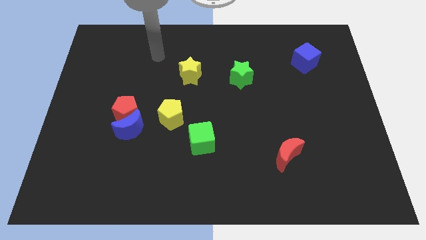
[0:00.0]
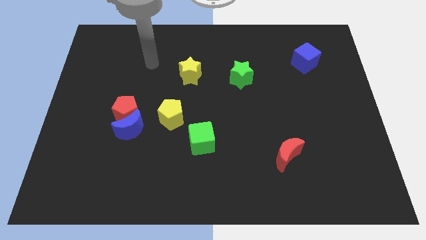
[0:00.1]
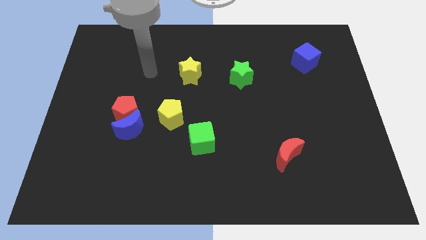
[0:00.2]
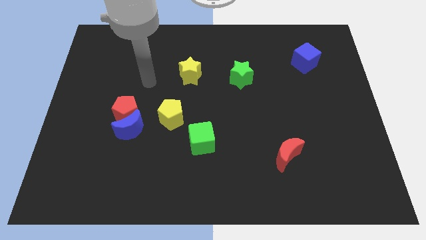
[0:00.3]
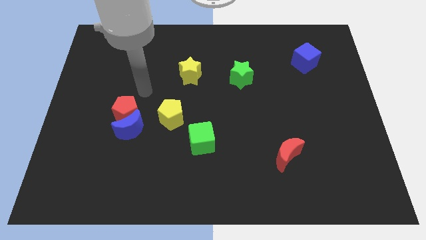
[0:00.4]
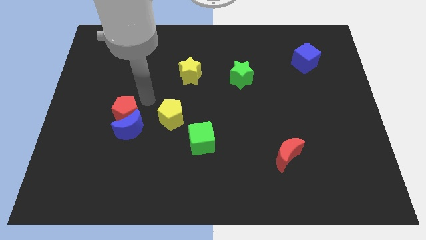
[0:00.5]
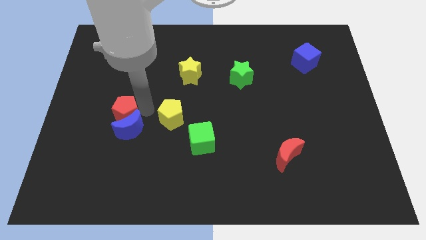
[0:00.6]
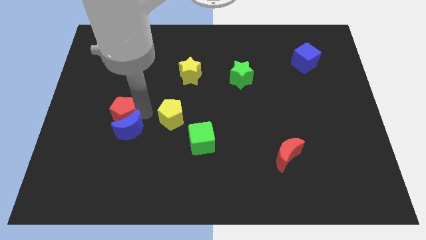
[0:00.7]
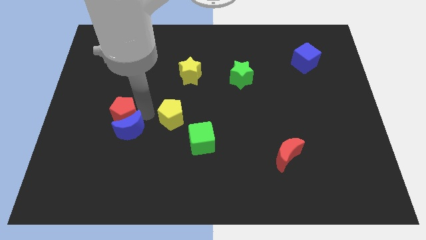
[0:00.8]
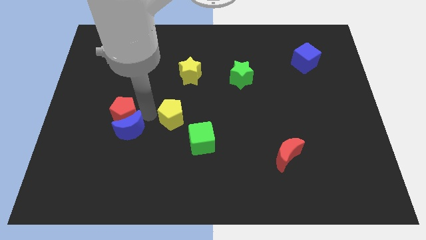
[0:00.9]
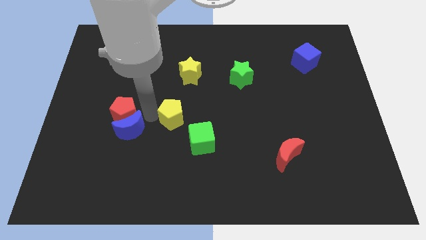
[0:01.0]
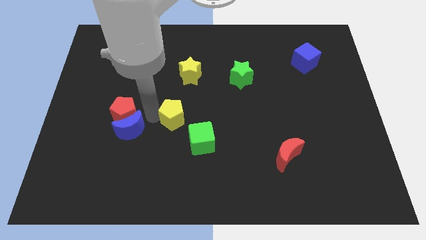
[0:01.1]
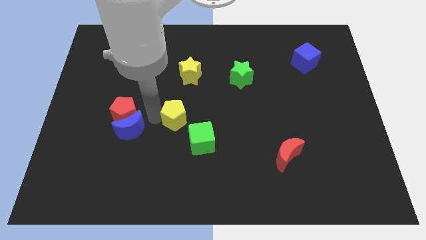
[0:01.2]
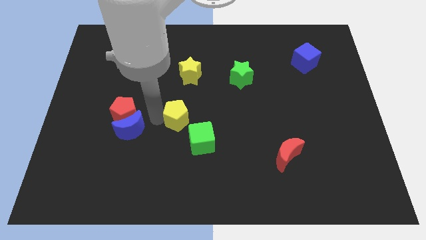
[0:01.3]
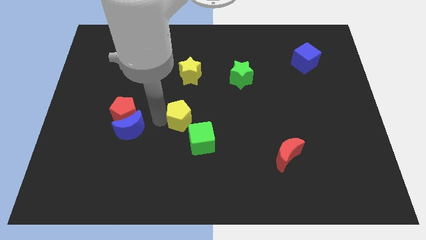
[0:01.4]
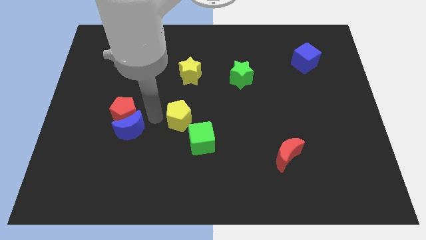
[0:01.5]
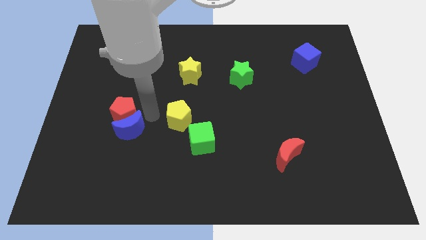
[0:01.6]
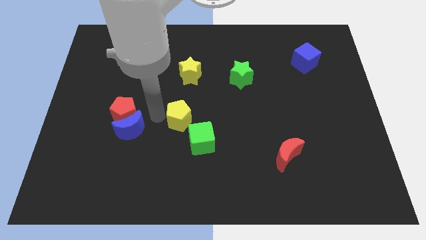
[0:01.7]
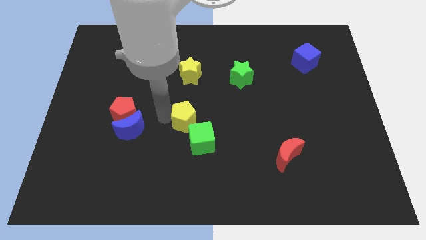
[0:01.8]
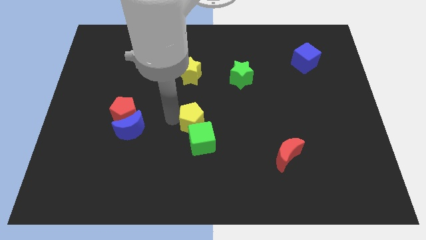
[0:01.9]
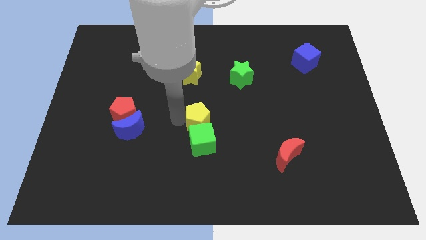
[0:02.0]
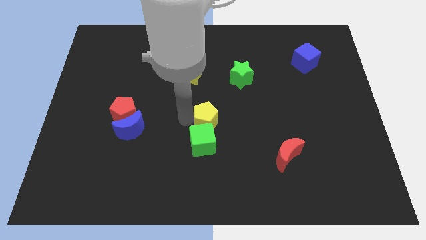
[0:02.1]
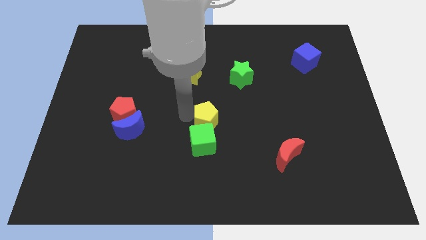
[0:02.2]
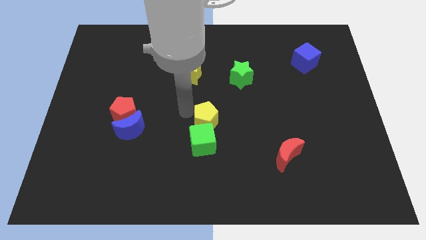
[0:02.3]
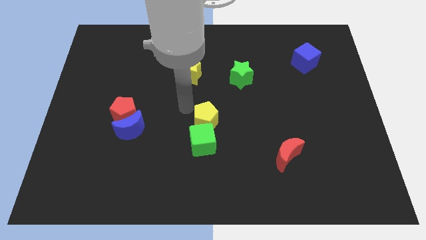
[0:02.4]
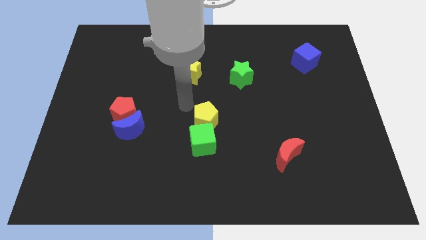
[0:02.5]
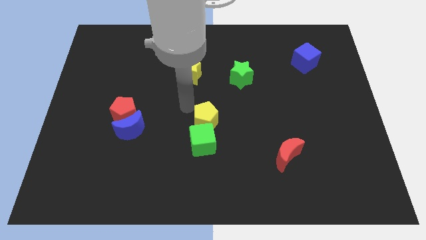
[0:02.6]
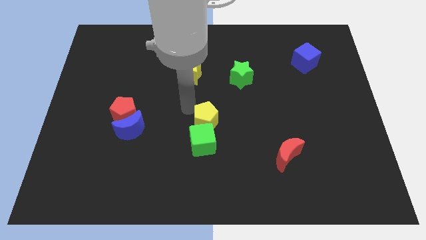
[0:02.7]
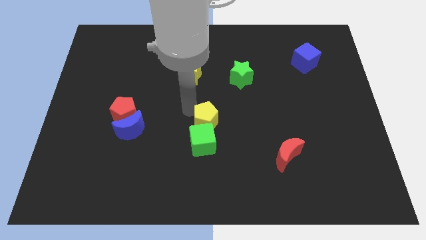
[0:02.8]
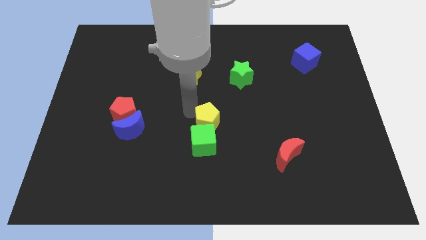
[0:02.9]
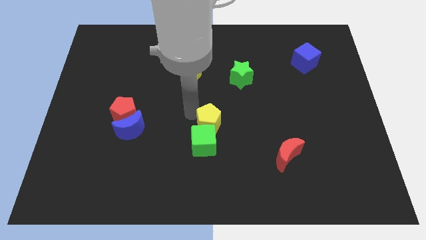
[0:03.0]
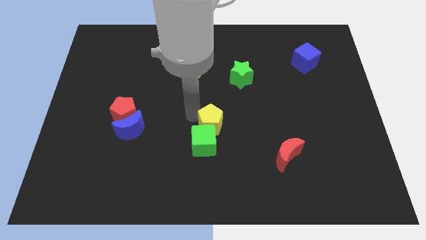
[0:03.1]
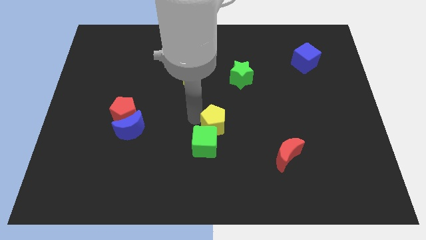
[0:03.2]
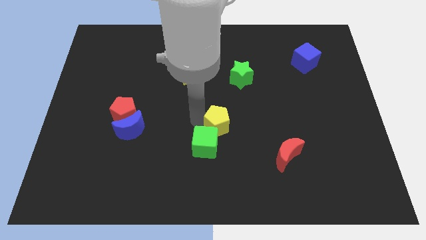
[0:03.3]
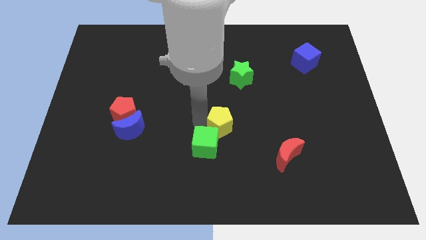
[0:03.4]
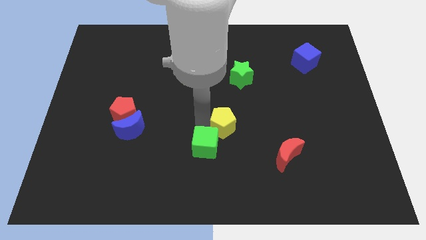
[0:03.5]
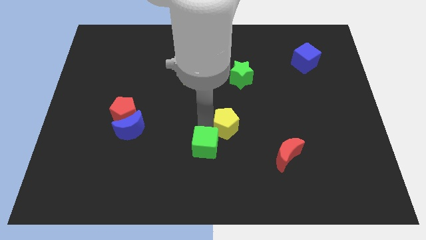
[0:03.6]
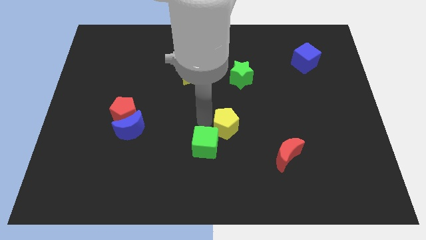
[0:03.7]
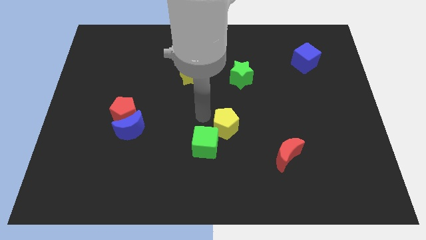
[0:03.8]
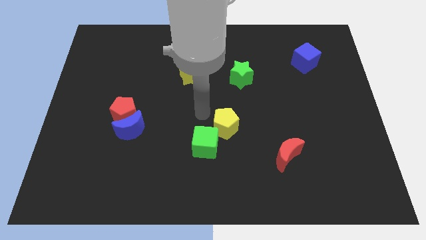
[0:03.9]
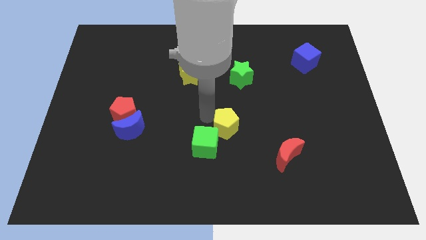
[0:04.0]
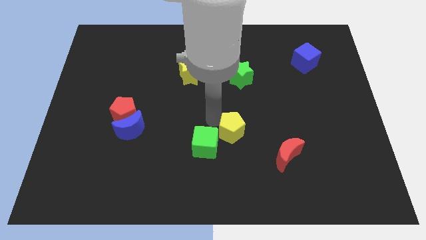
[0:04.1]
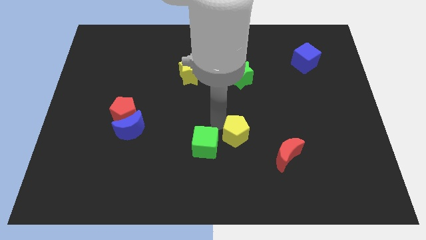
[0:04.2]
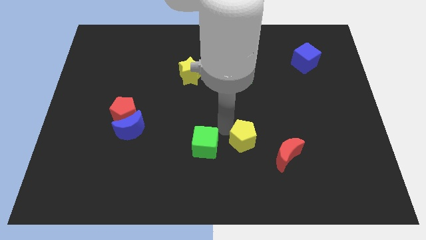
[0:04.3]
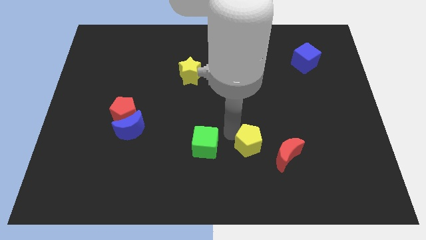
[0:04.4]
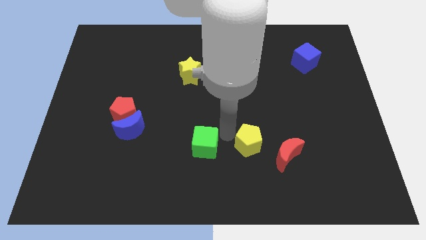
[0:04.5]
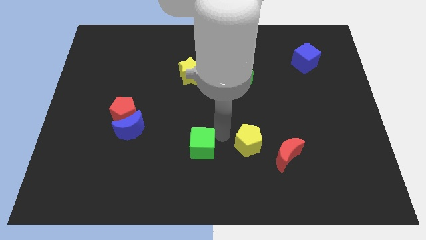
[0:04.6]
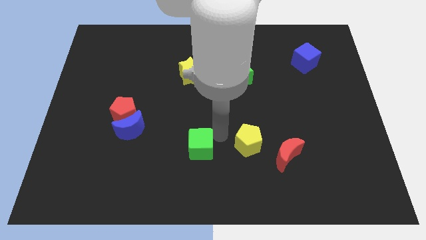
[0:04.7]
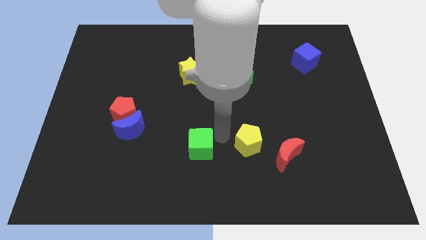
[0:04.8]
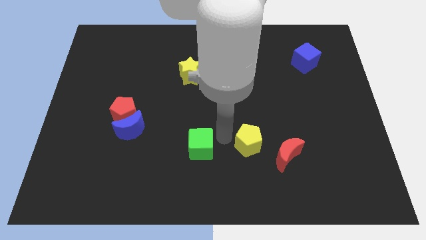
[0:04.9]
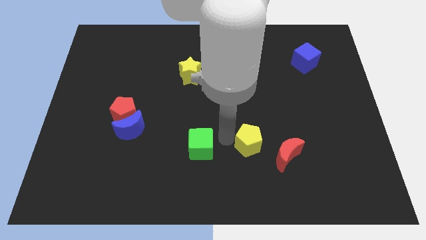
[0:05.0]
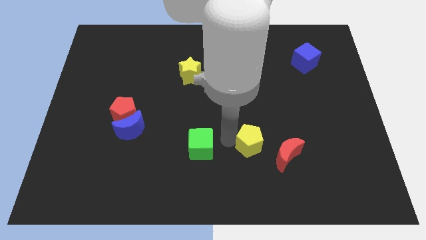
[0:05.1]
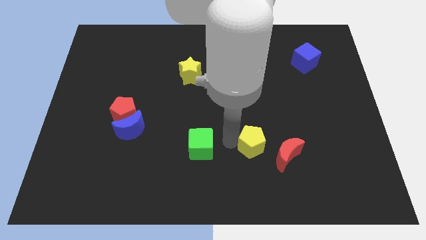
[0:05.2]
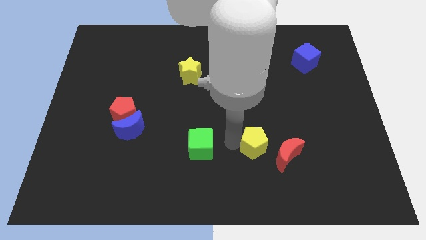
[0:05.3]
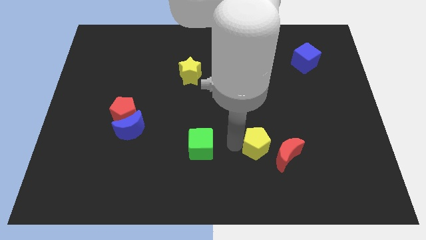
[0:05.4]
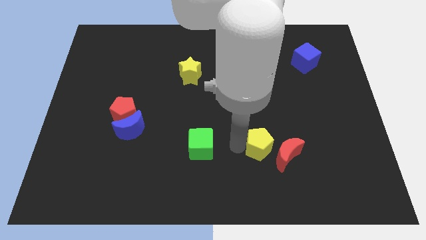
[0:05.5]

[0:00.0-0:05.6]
push the yellow pentagon towards the red moon

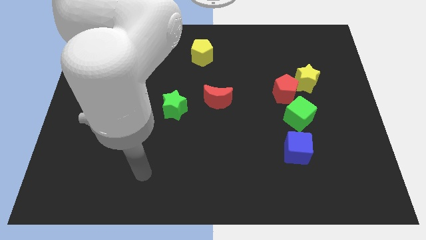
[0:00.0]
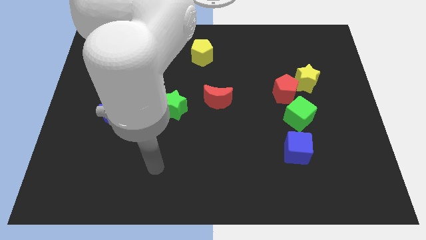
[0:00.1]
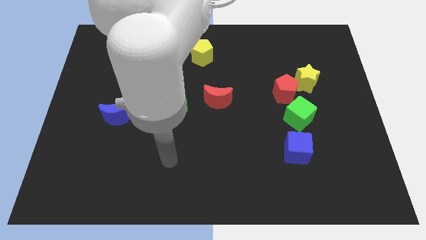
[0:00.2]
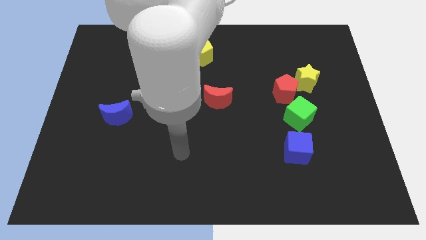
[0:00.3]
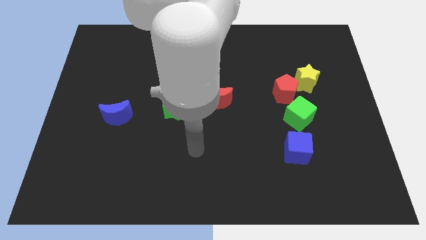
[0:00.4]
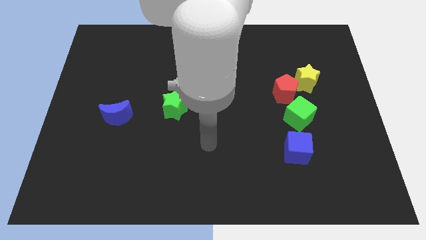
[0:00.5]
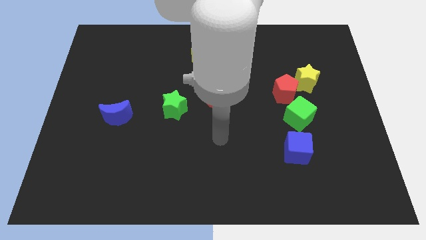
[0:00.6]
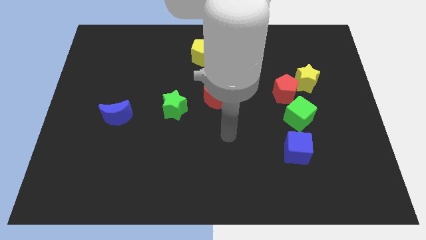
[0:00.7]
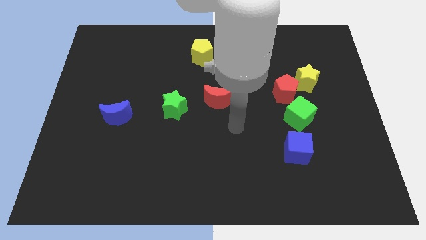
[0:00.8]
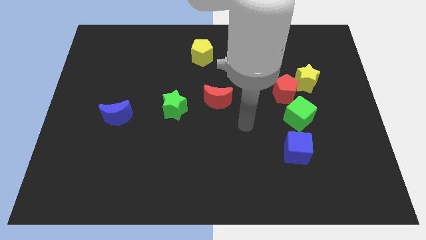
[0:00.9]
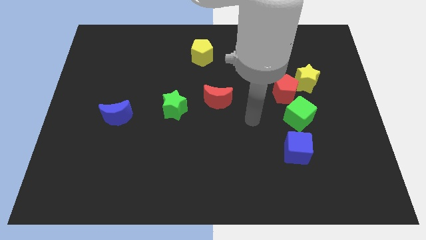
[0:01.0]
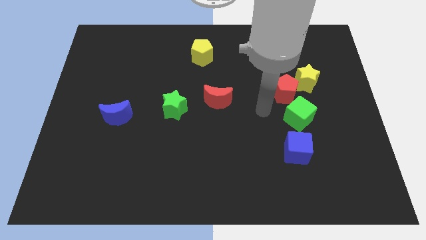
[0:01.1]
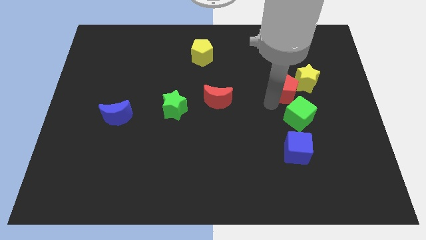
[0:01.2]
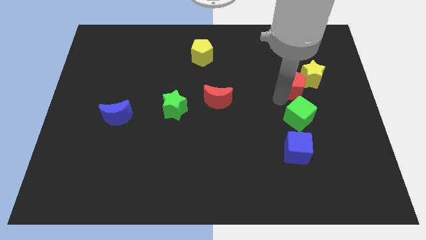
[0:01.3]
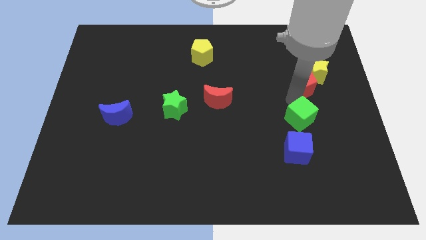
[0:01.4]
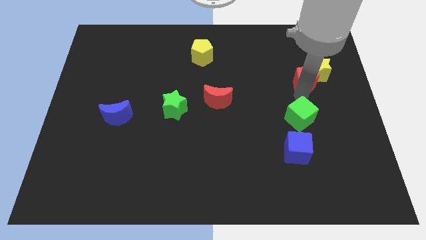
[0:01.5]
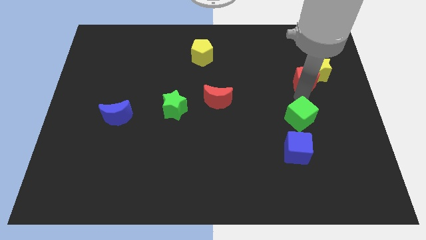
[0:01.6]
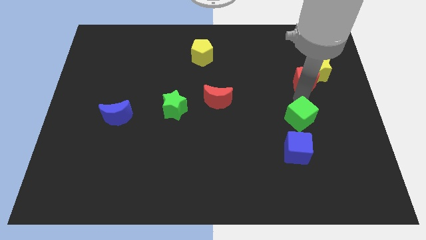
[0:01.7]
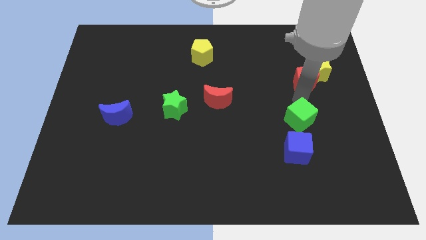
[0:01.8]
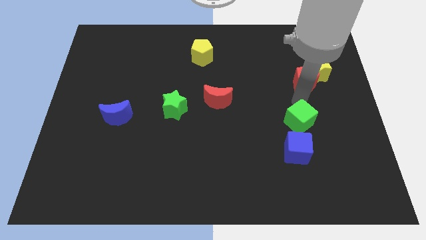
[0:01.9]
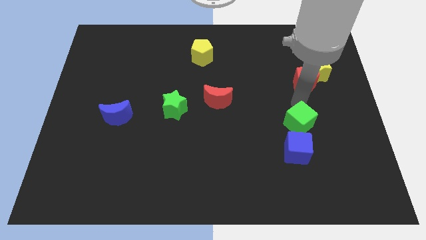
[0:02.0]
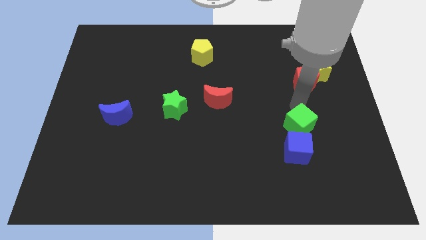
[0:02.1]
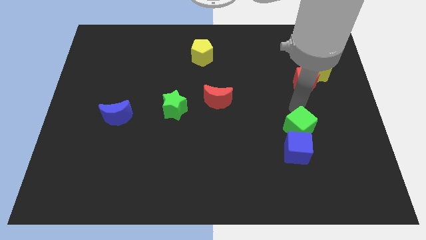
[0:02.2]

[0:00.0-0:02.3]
push the green cube to the blue cube
